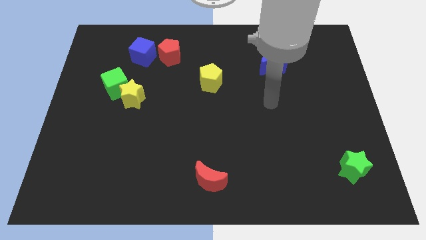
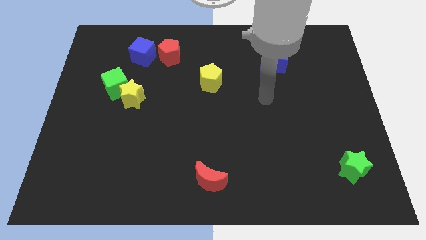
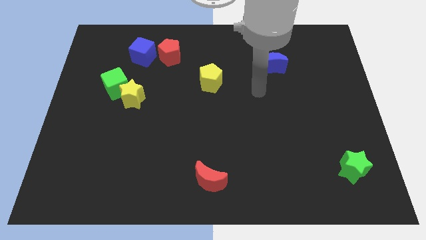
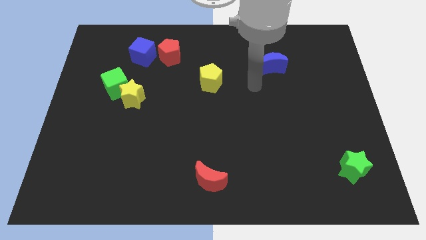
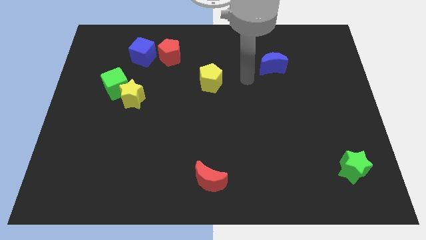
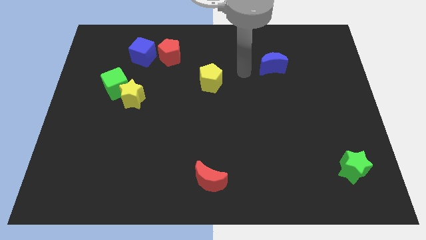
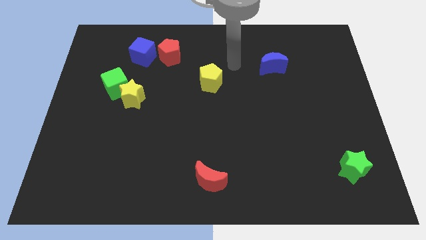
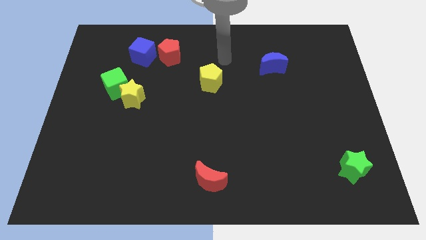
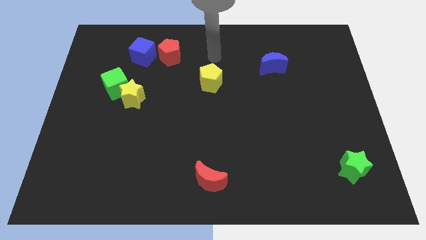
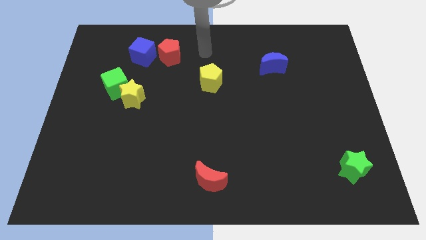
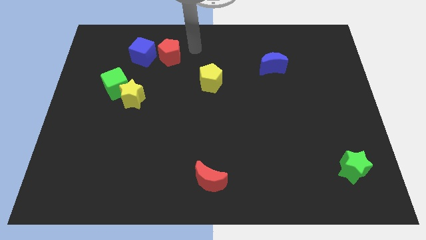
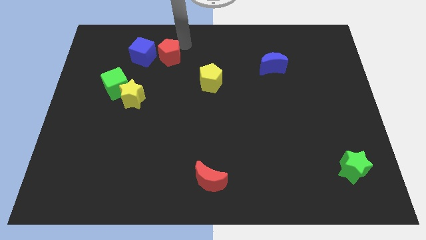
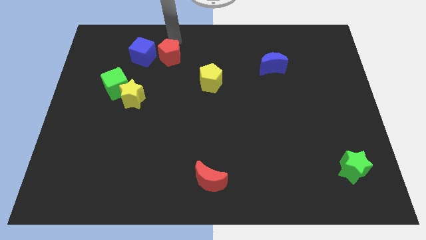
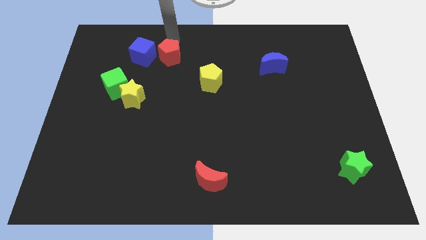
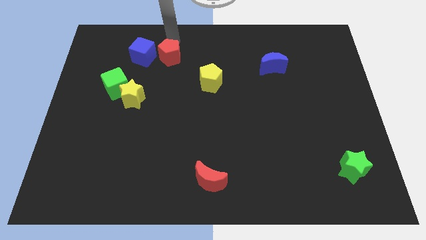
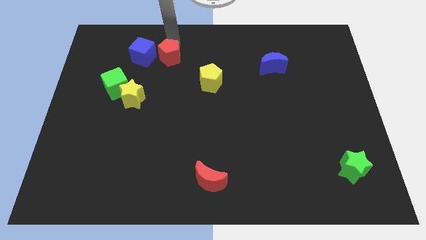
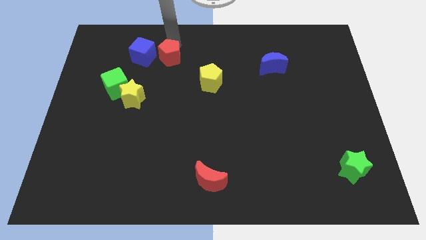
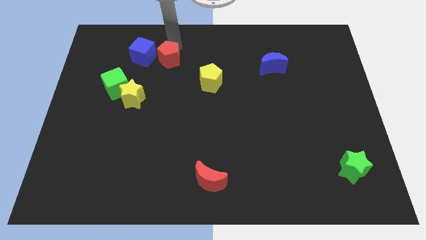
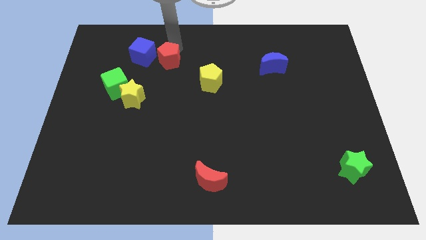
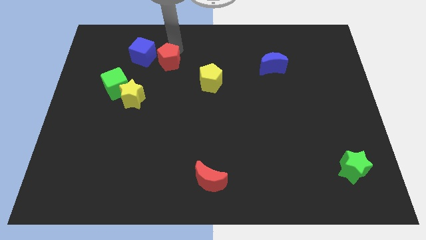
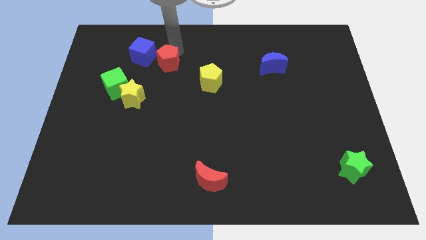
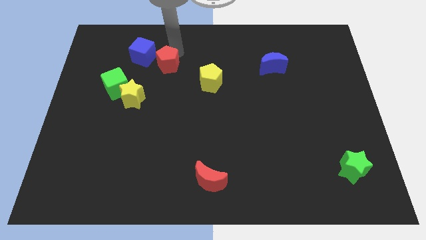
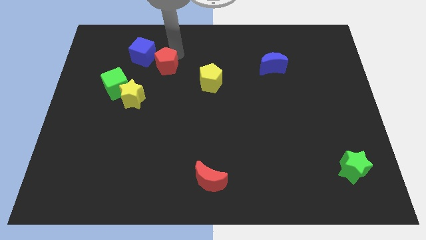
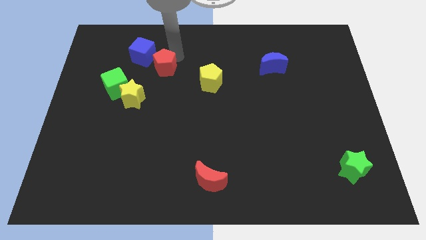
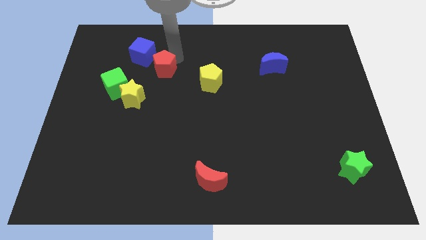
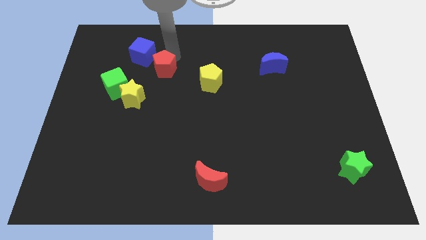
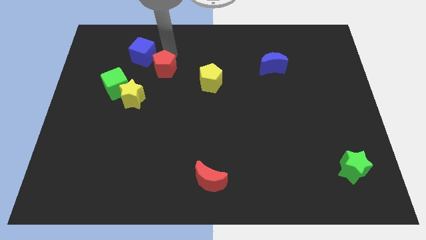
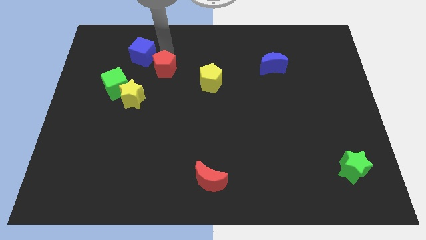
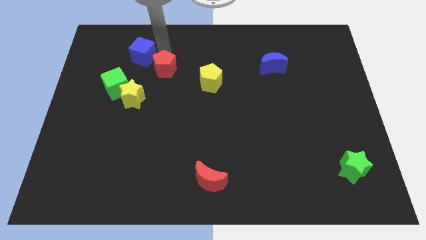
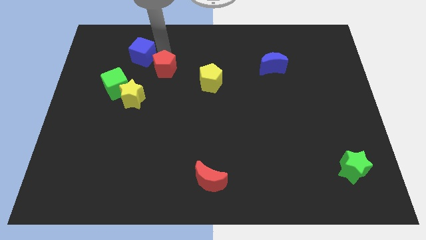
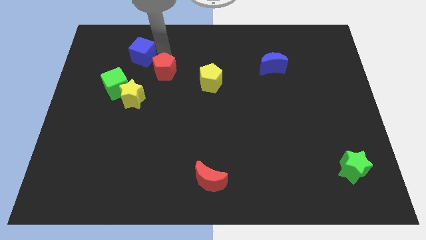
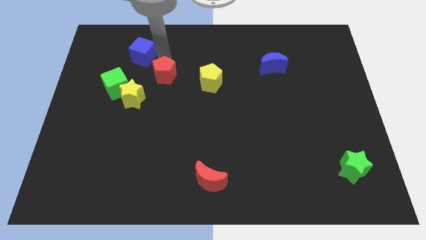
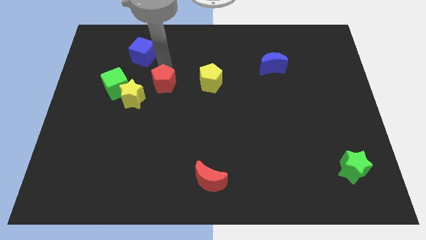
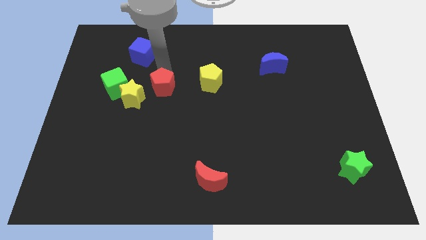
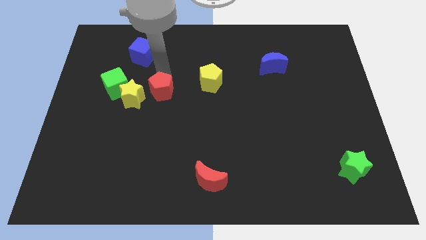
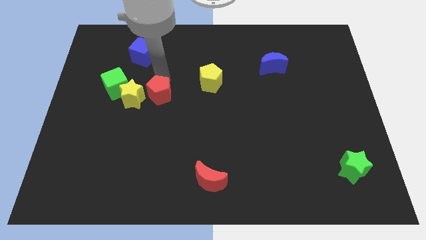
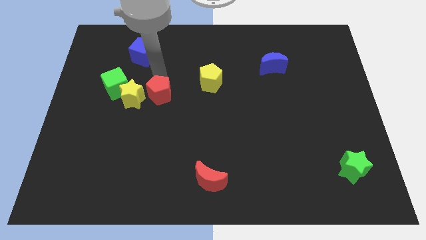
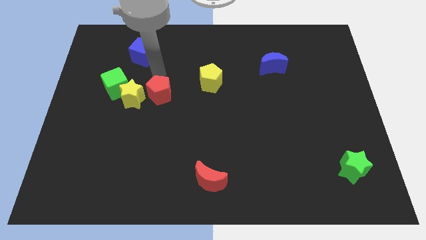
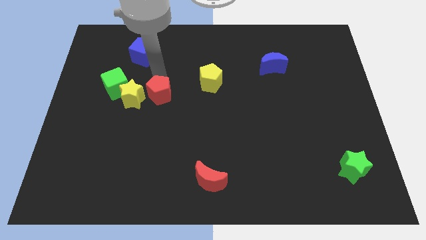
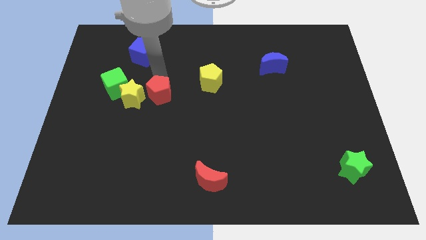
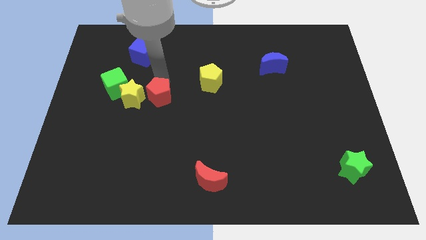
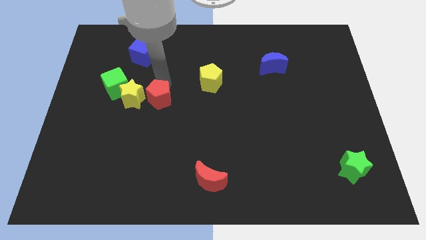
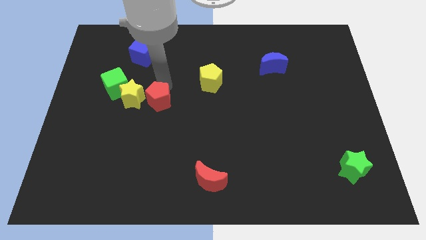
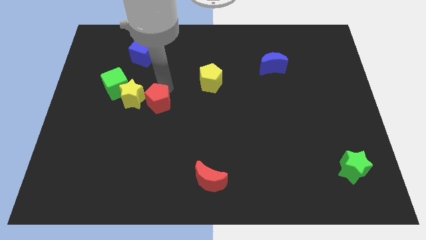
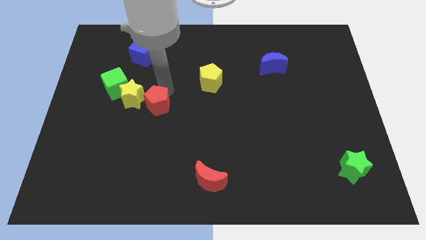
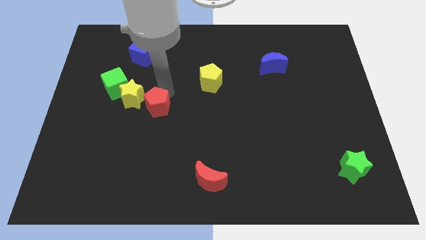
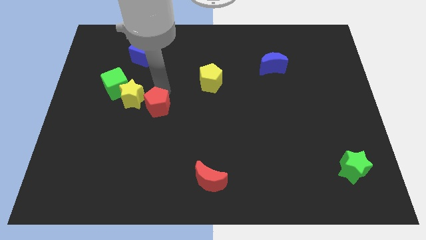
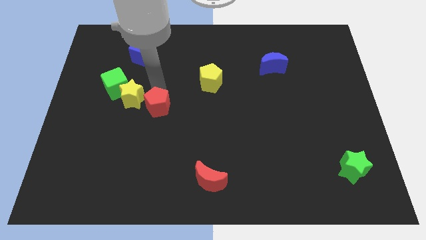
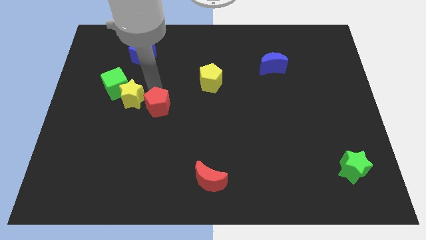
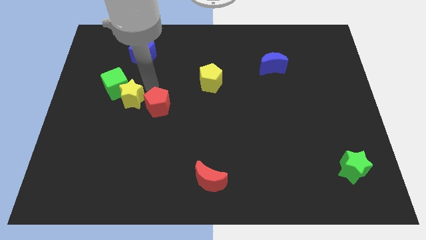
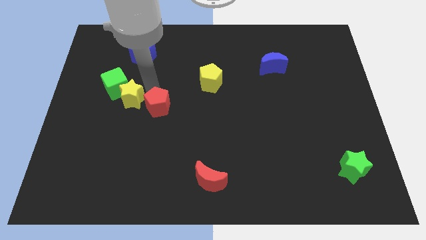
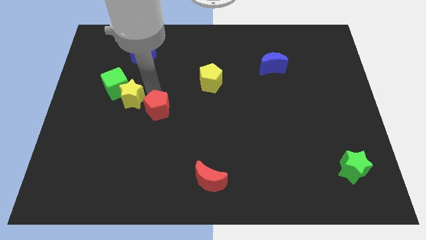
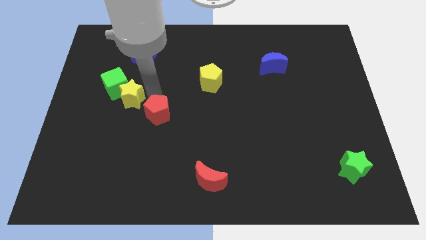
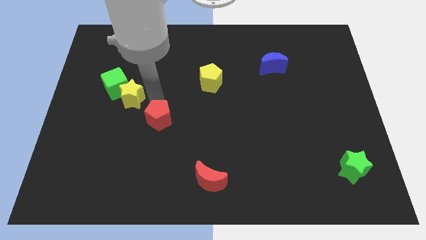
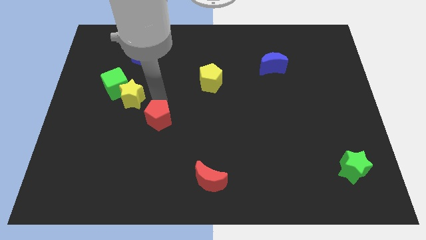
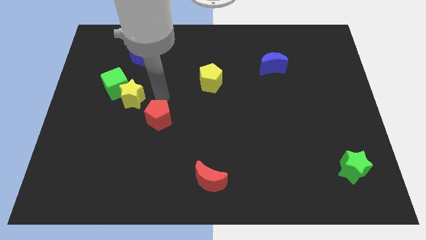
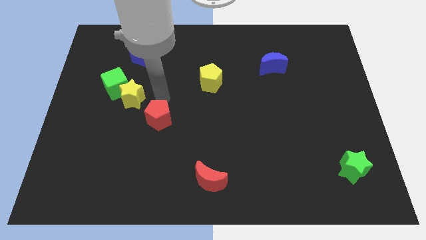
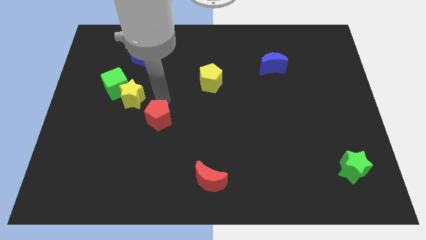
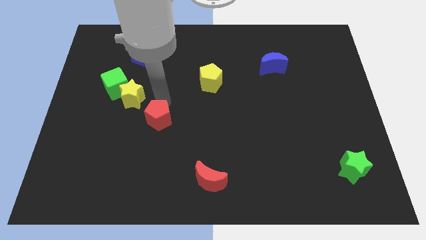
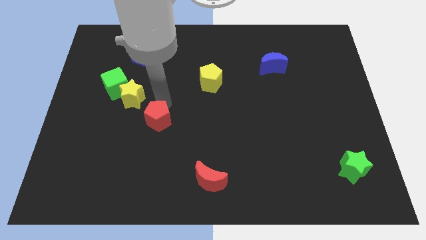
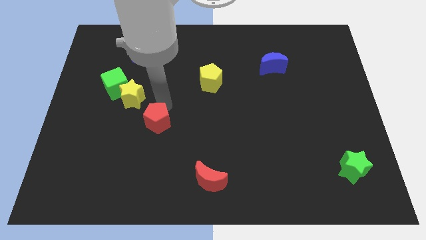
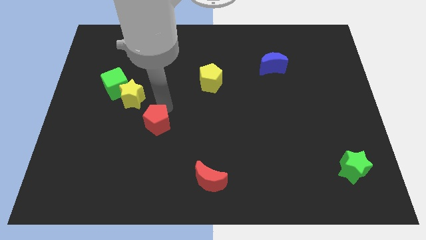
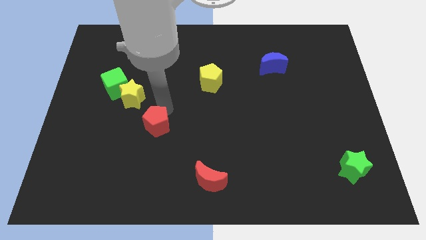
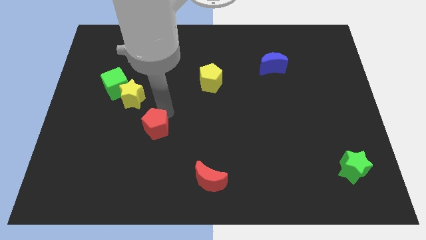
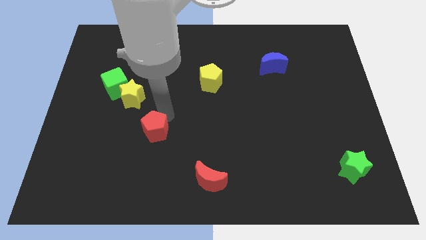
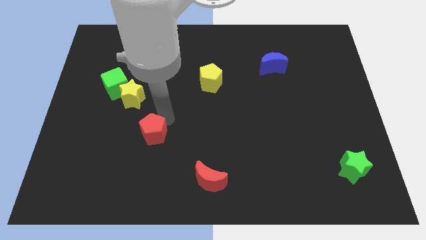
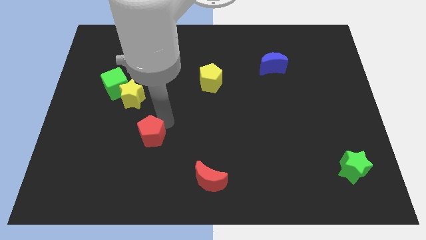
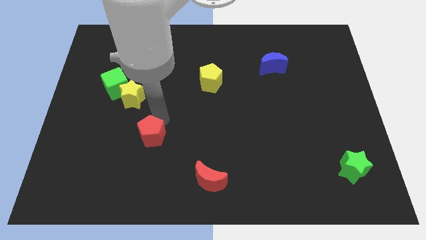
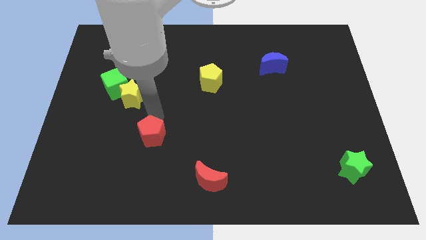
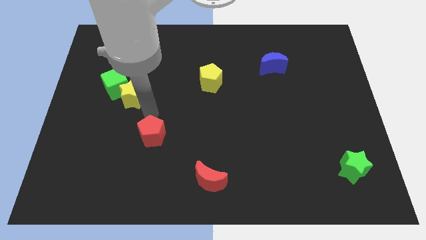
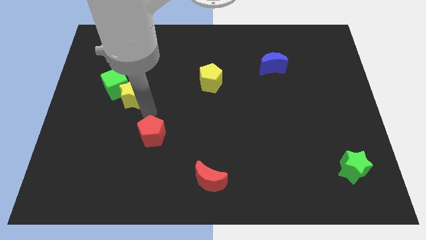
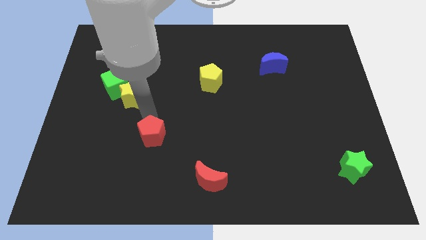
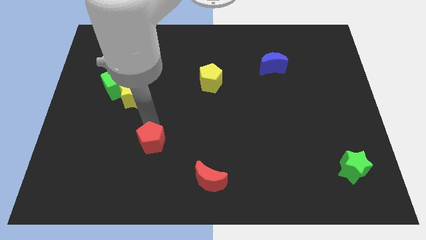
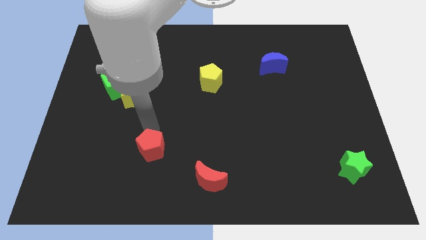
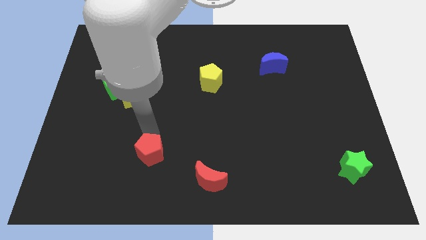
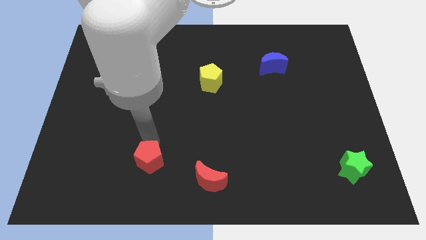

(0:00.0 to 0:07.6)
move the red pentagon to the left side of the red moon
